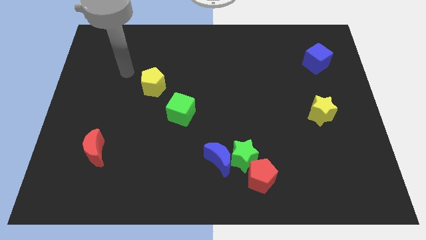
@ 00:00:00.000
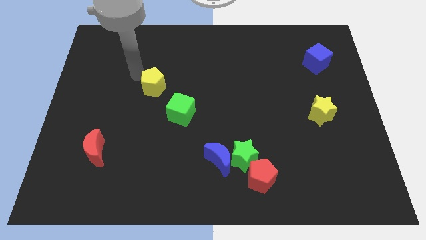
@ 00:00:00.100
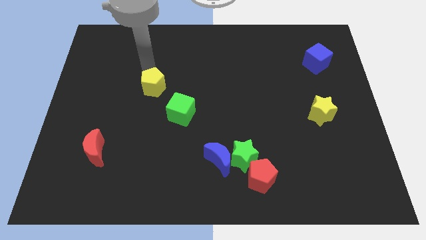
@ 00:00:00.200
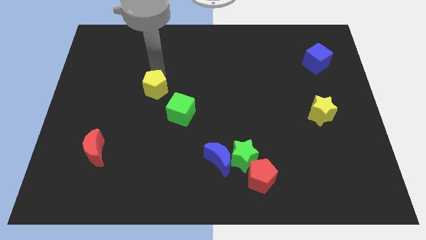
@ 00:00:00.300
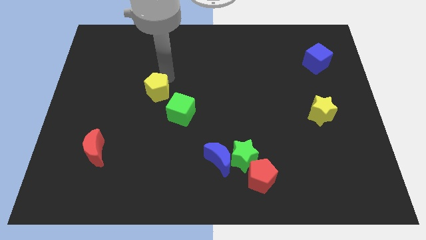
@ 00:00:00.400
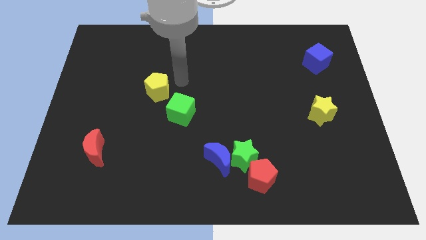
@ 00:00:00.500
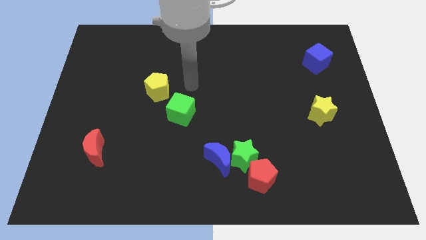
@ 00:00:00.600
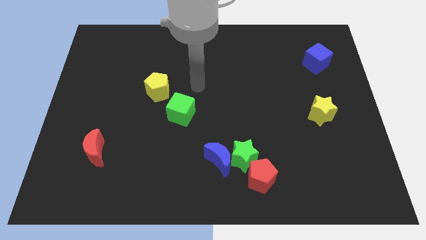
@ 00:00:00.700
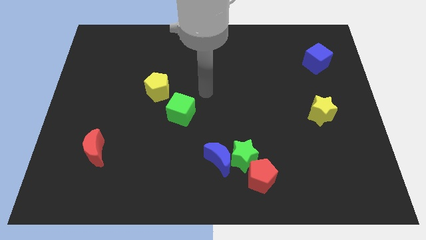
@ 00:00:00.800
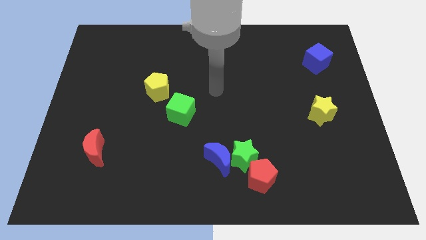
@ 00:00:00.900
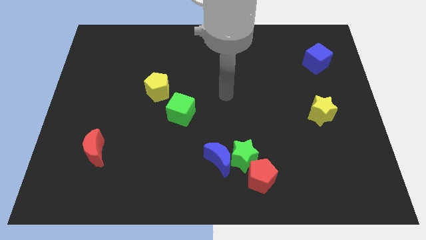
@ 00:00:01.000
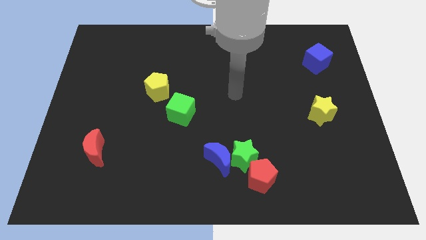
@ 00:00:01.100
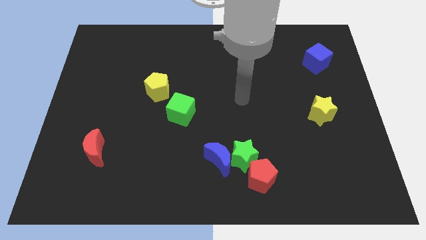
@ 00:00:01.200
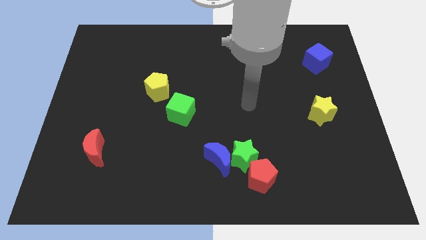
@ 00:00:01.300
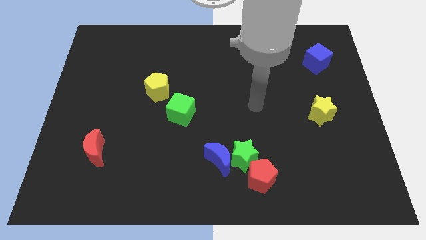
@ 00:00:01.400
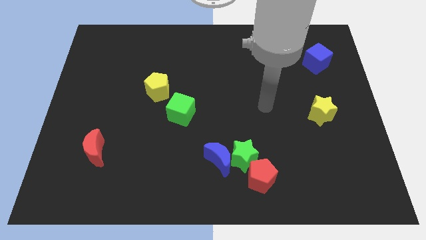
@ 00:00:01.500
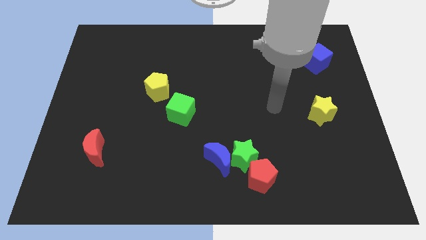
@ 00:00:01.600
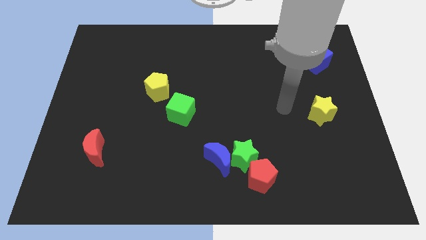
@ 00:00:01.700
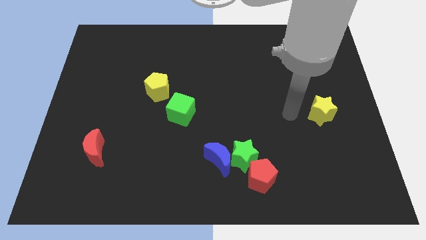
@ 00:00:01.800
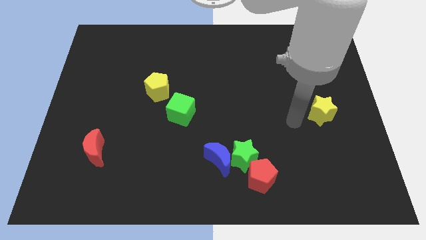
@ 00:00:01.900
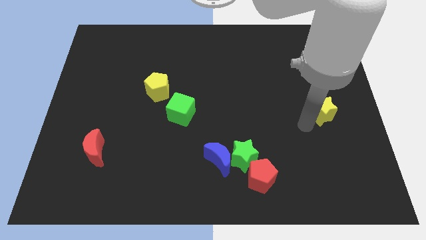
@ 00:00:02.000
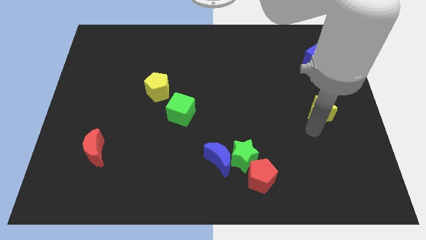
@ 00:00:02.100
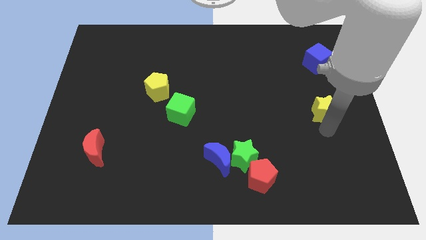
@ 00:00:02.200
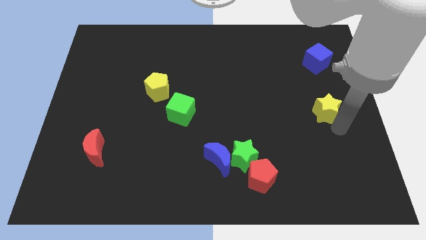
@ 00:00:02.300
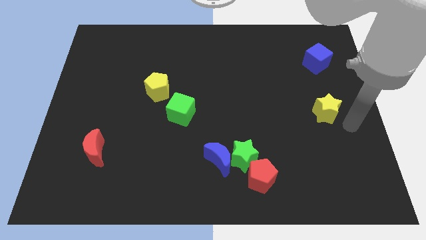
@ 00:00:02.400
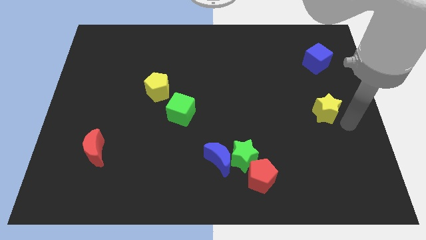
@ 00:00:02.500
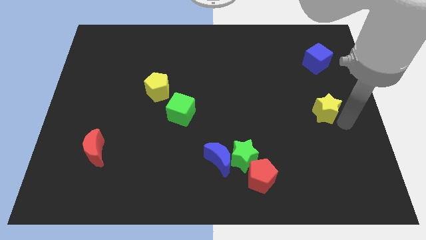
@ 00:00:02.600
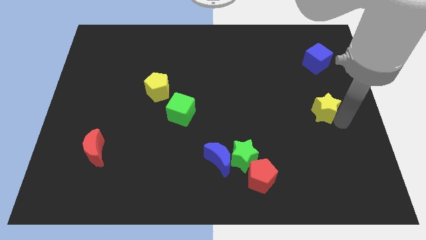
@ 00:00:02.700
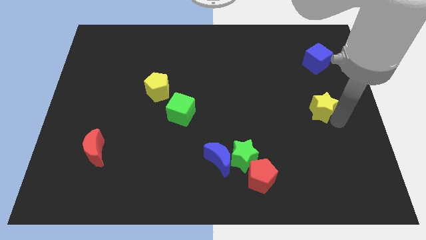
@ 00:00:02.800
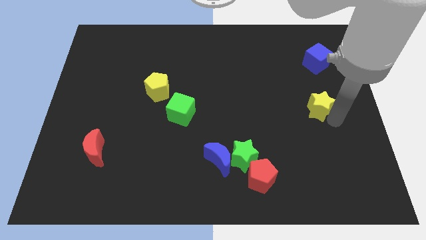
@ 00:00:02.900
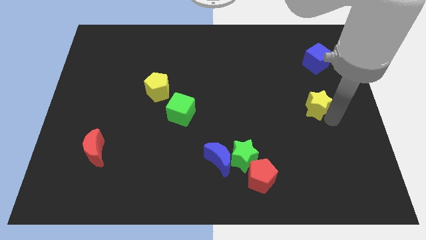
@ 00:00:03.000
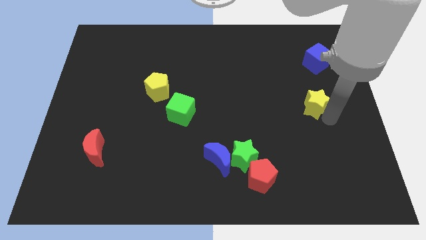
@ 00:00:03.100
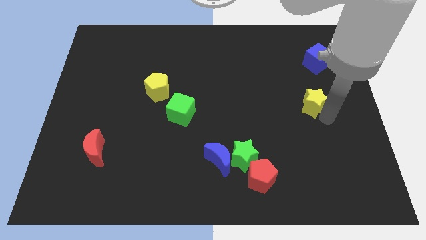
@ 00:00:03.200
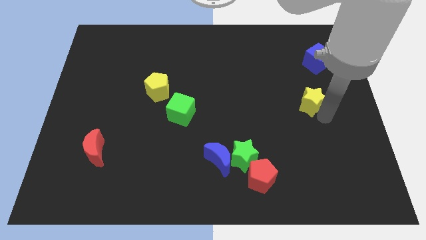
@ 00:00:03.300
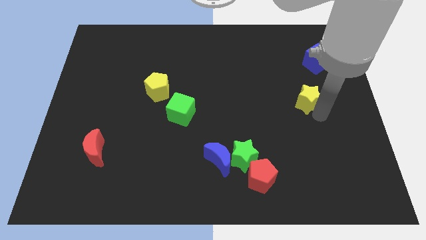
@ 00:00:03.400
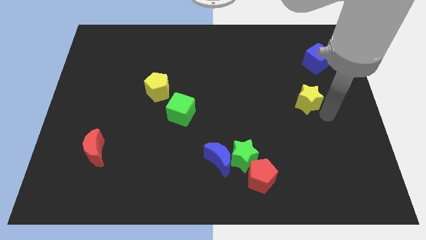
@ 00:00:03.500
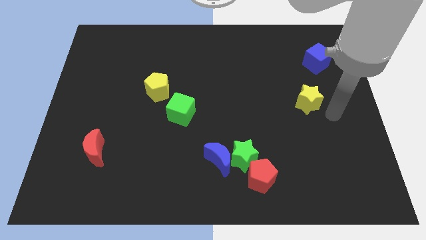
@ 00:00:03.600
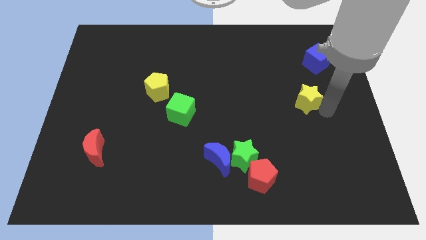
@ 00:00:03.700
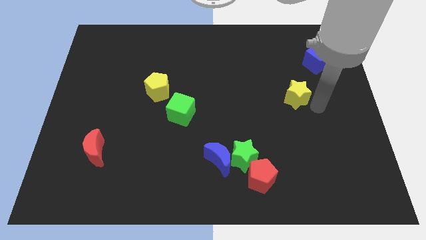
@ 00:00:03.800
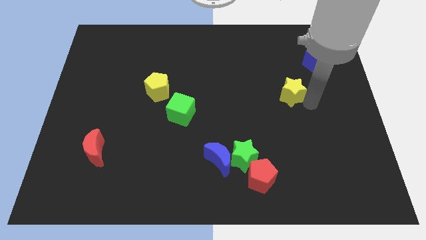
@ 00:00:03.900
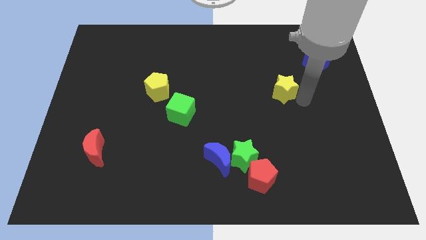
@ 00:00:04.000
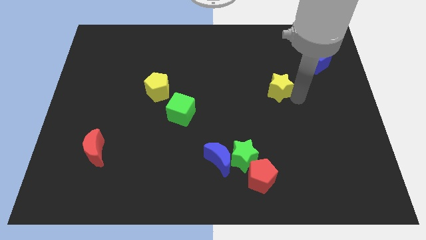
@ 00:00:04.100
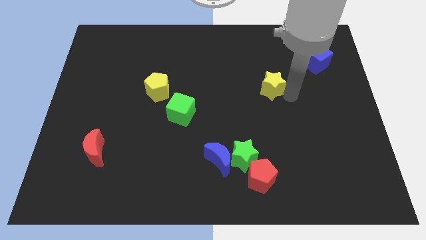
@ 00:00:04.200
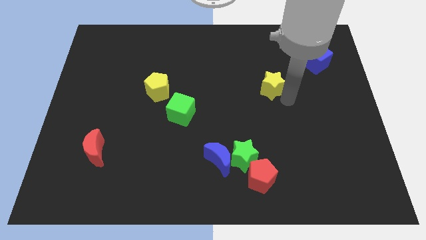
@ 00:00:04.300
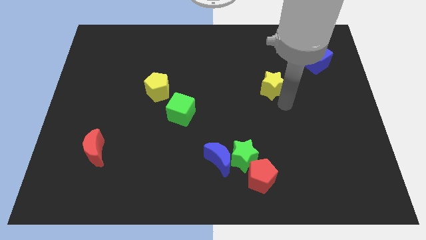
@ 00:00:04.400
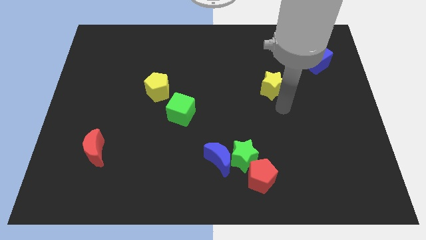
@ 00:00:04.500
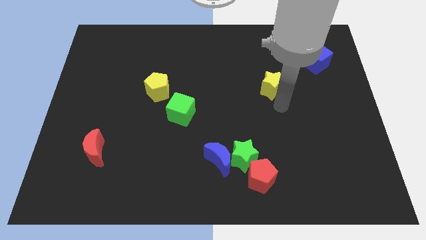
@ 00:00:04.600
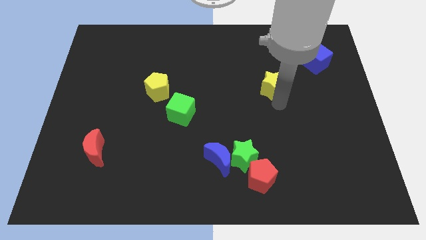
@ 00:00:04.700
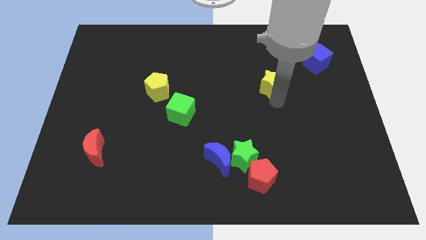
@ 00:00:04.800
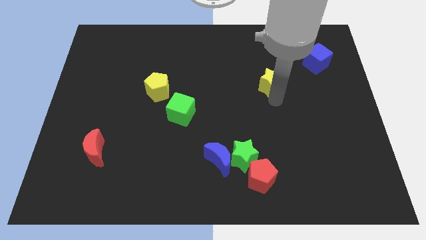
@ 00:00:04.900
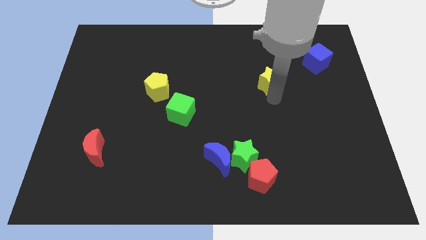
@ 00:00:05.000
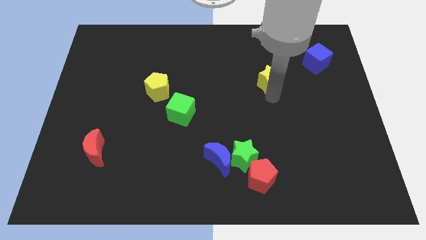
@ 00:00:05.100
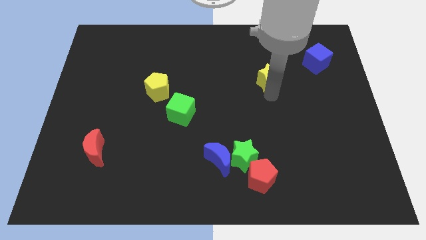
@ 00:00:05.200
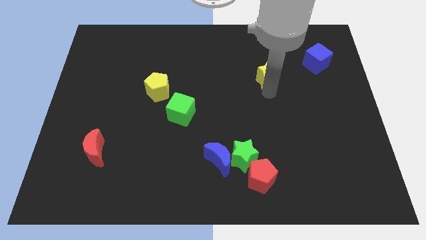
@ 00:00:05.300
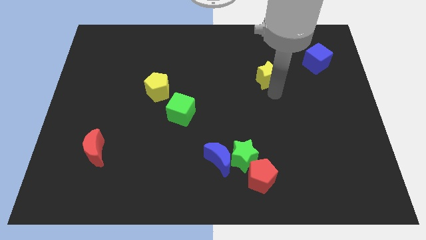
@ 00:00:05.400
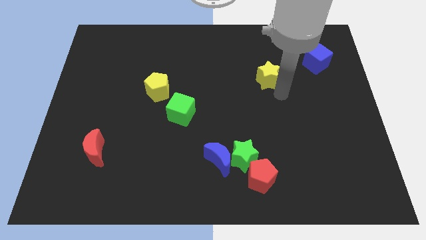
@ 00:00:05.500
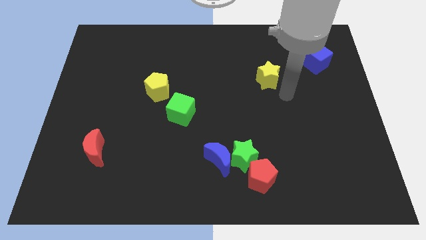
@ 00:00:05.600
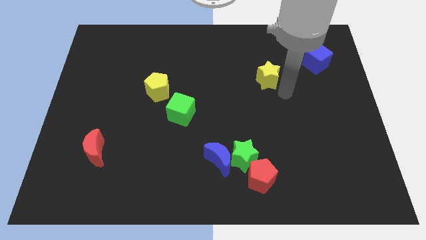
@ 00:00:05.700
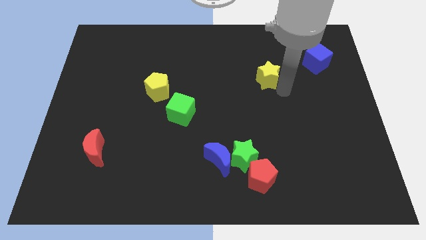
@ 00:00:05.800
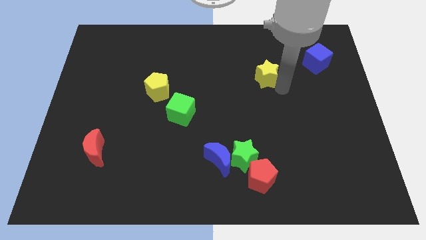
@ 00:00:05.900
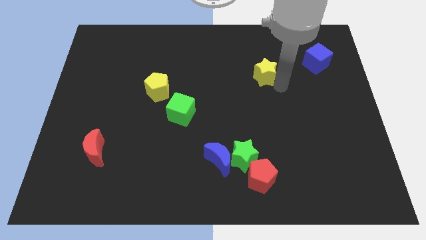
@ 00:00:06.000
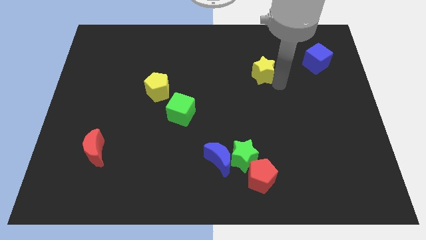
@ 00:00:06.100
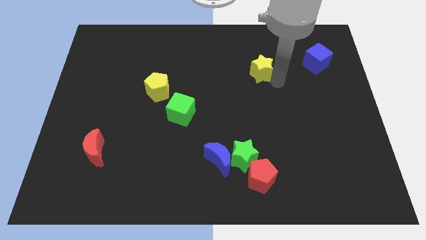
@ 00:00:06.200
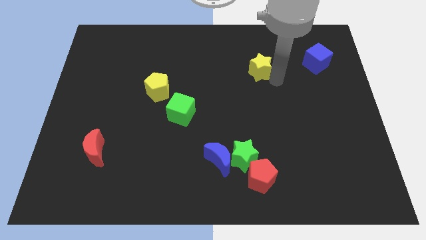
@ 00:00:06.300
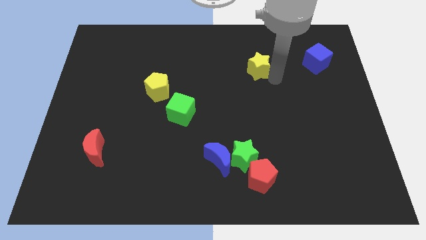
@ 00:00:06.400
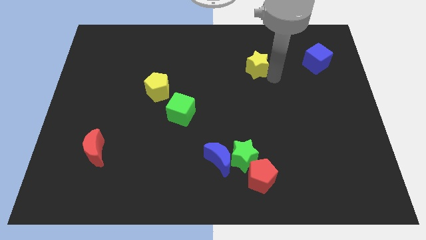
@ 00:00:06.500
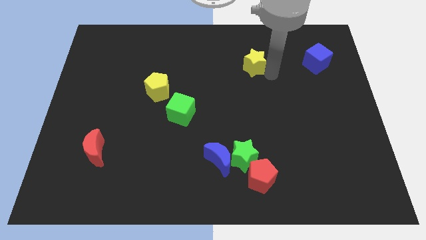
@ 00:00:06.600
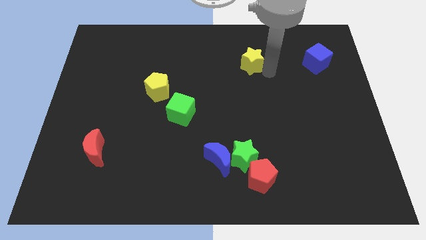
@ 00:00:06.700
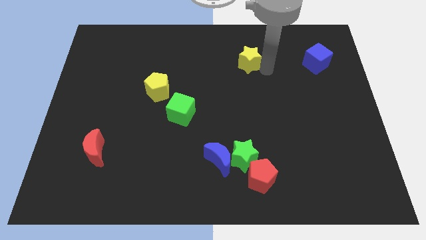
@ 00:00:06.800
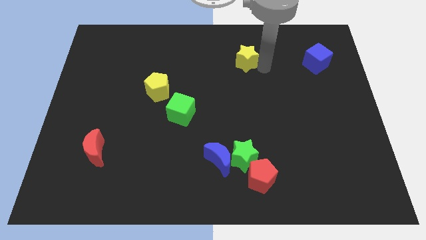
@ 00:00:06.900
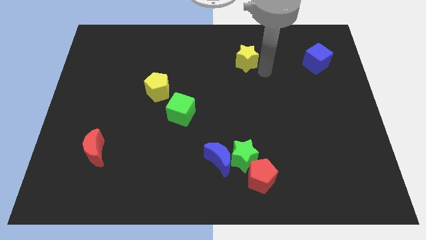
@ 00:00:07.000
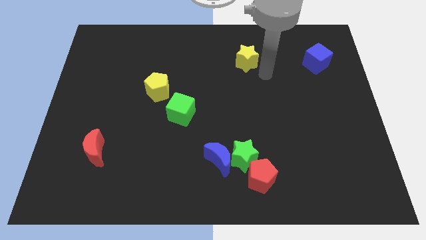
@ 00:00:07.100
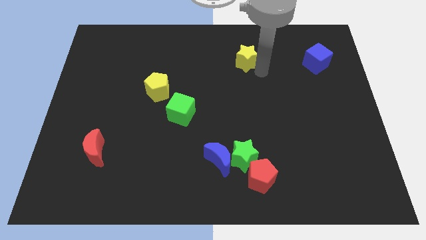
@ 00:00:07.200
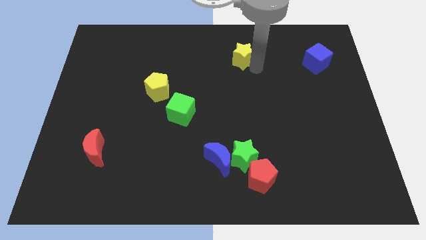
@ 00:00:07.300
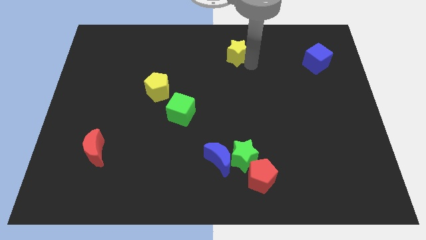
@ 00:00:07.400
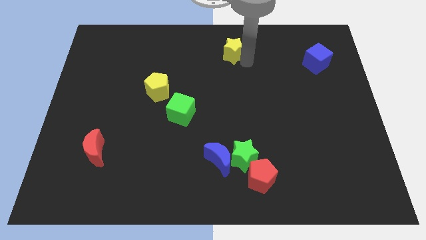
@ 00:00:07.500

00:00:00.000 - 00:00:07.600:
push the yellow star to the towards your base
